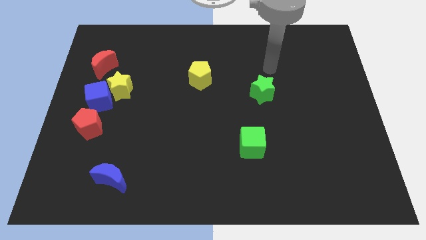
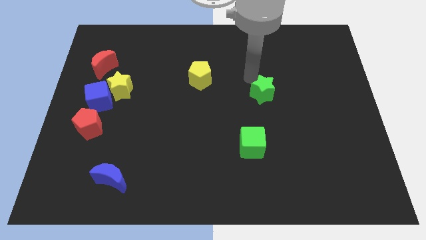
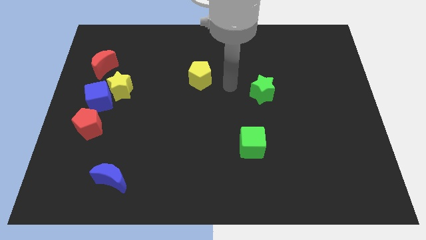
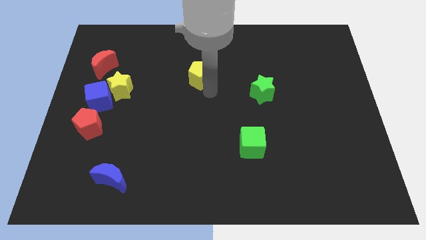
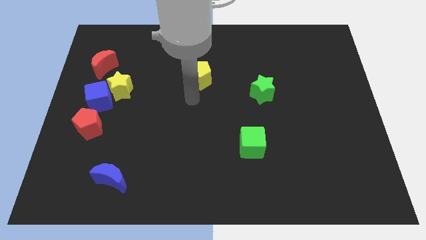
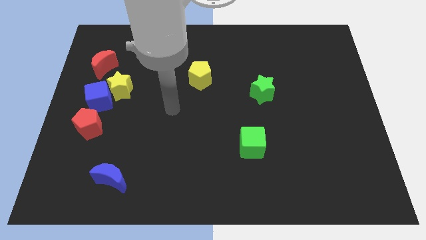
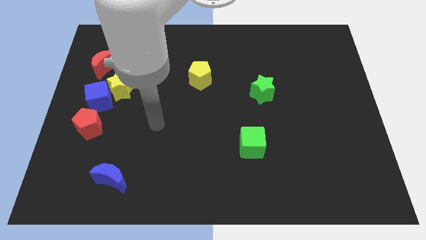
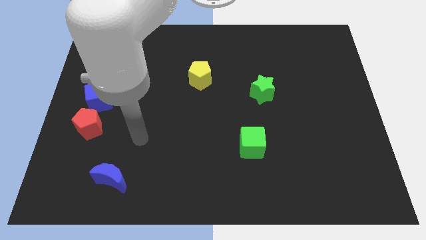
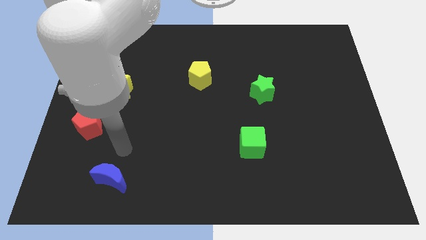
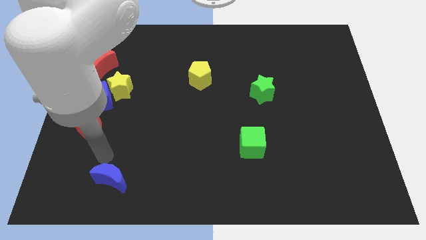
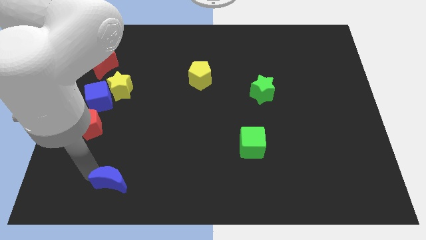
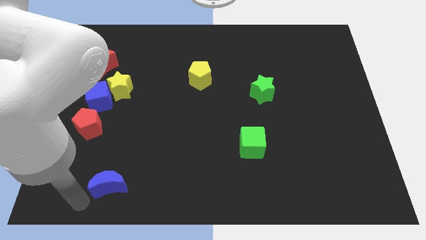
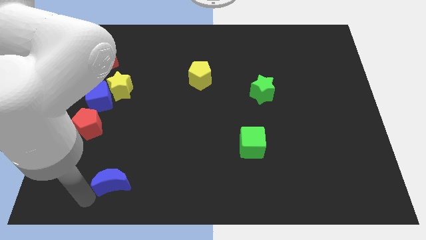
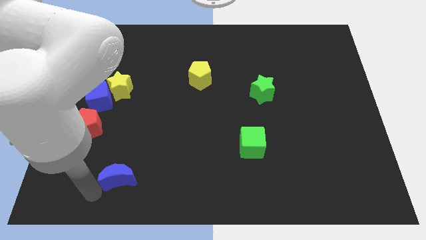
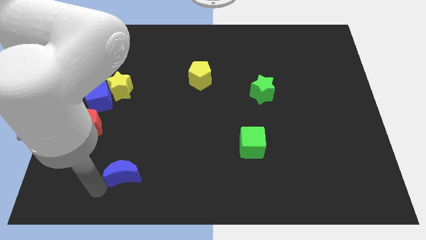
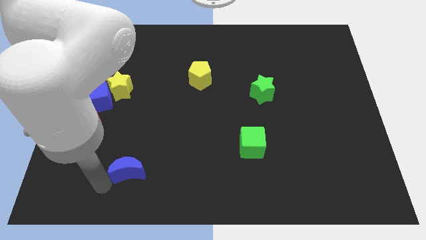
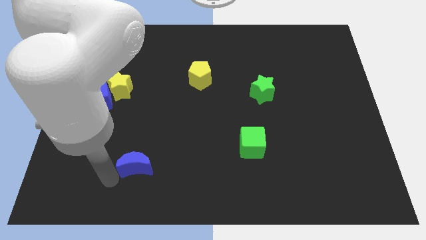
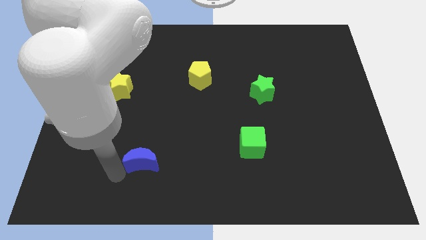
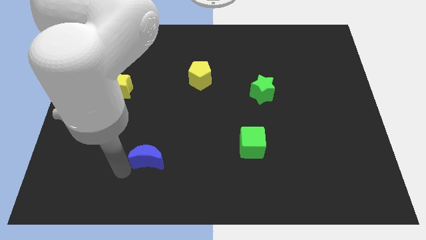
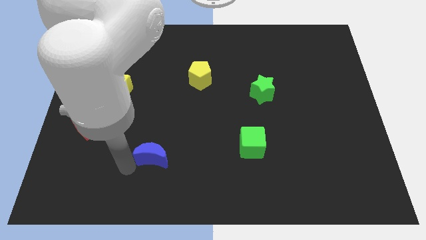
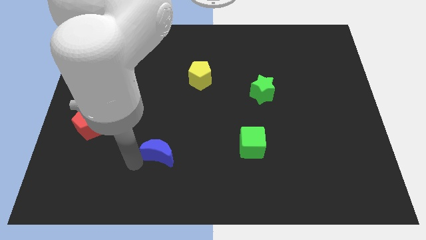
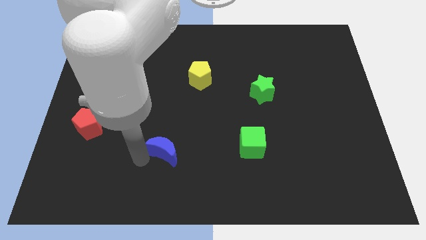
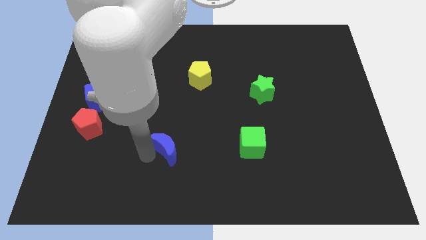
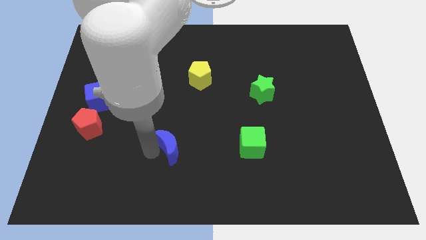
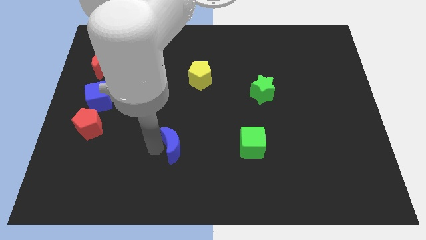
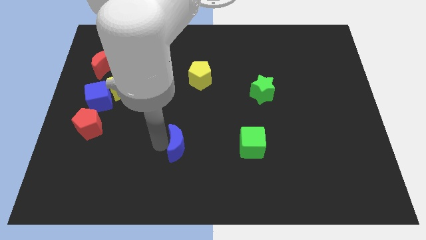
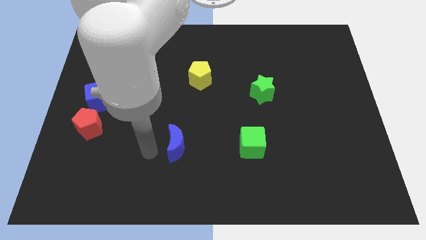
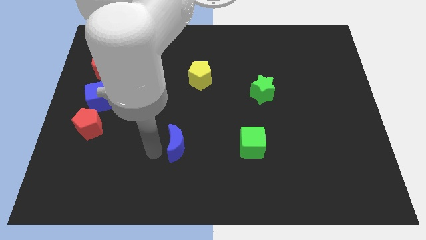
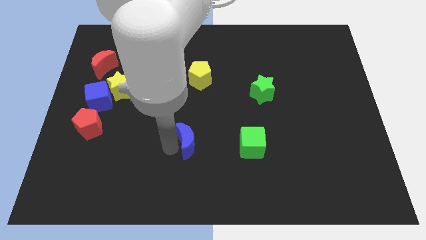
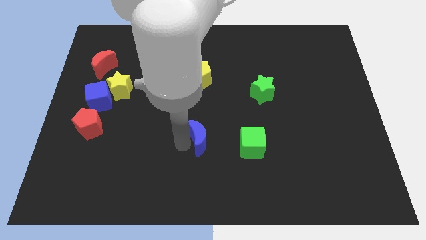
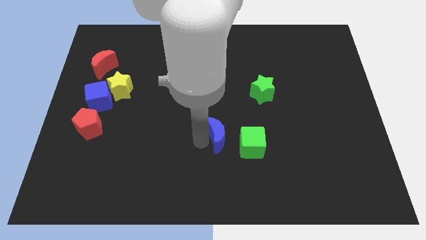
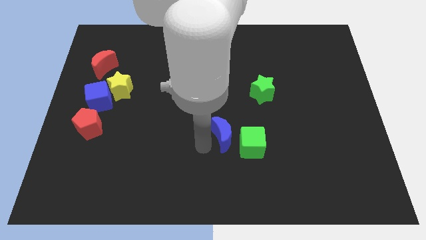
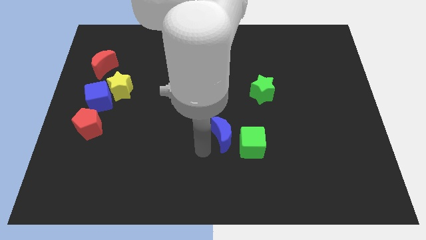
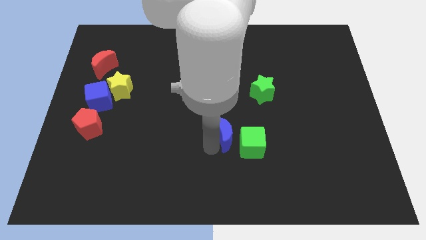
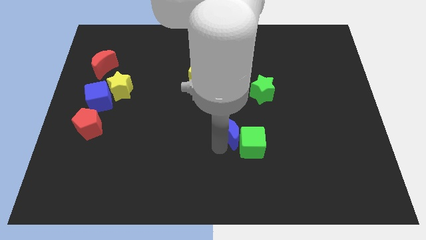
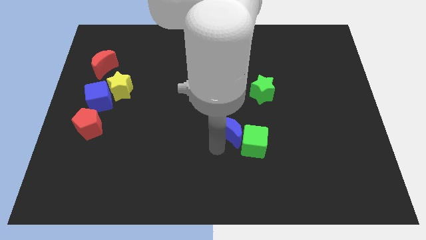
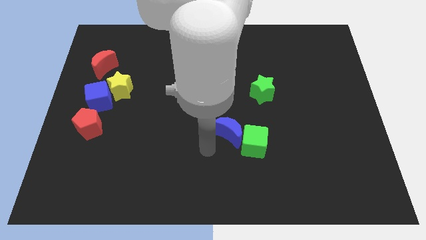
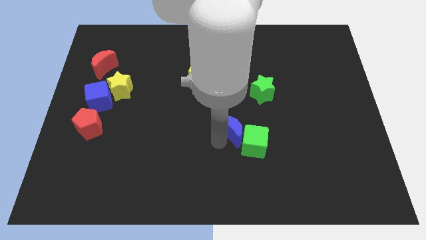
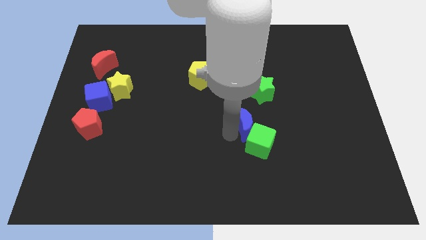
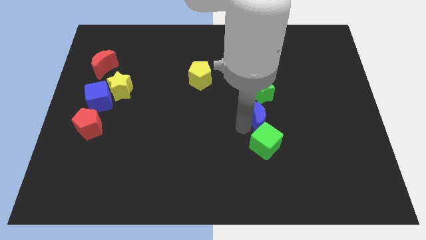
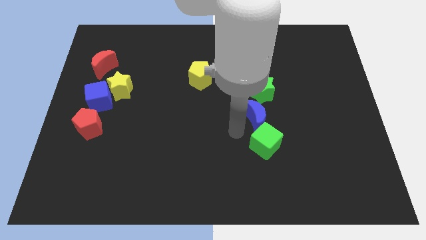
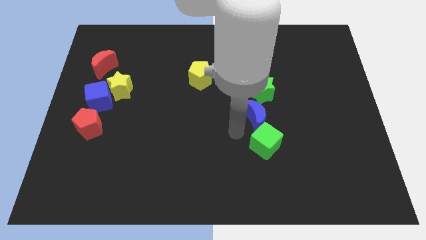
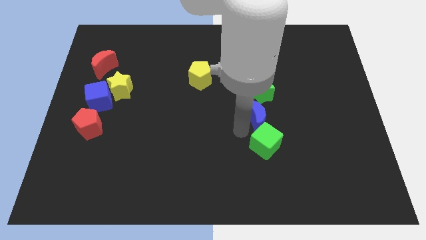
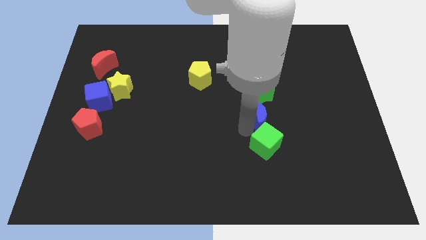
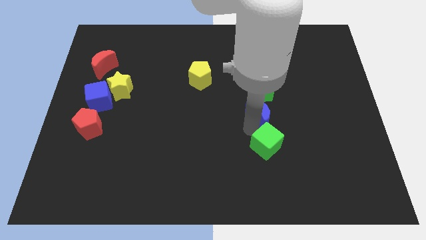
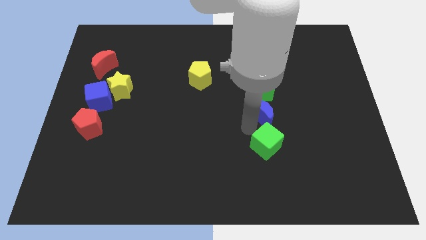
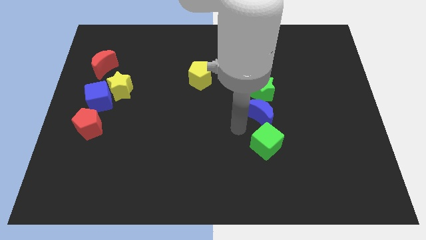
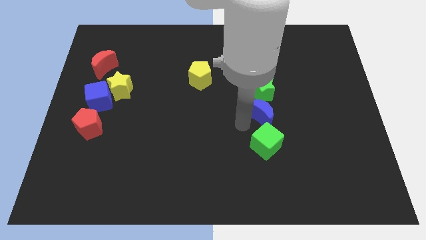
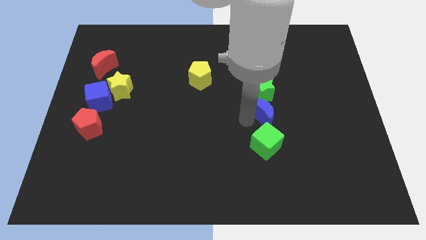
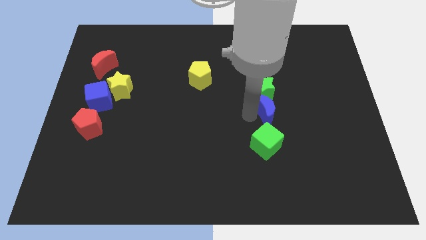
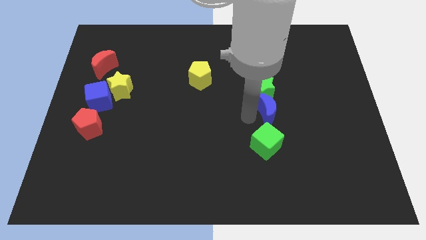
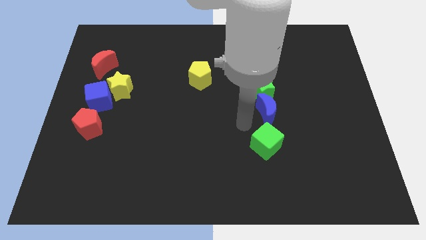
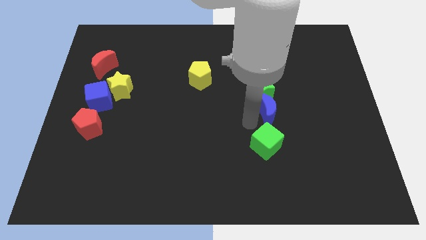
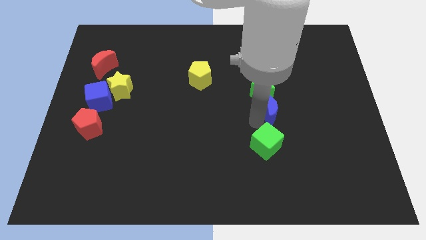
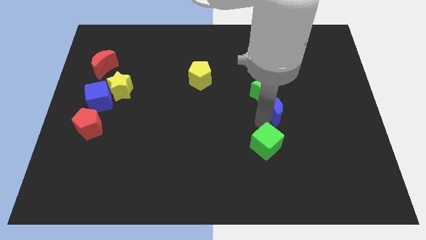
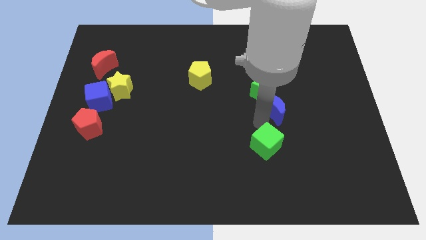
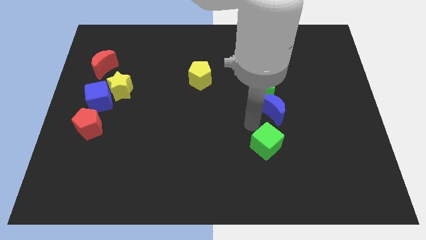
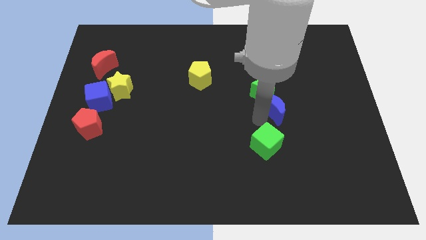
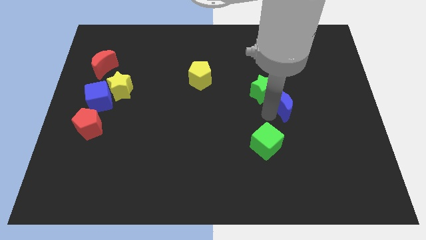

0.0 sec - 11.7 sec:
push the blue moon just right of the green star

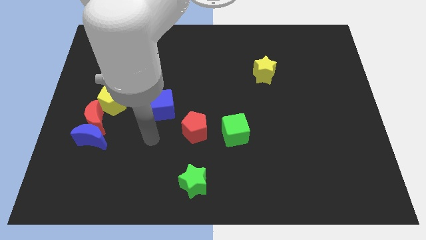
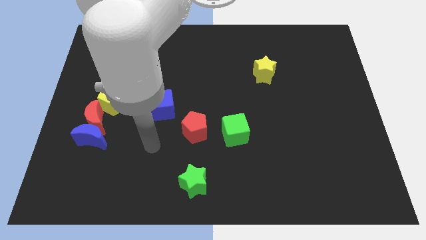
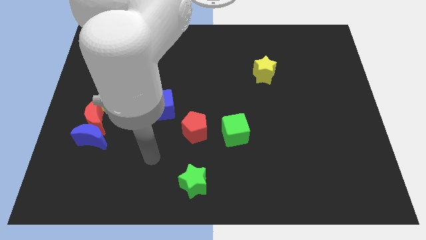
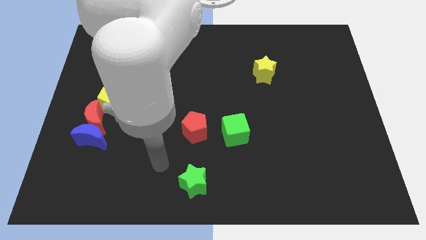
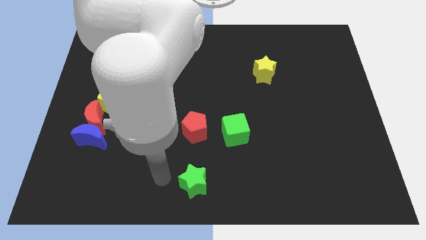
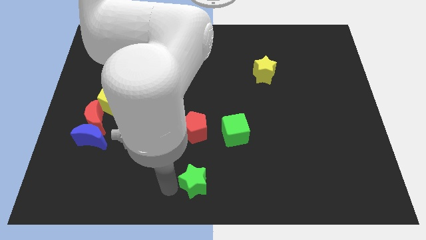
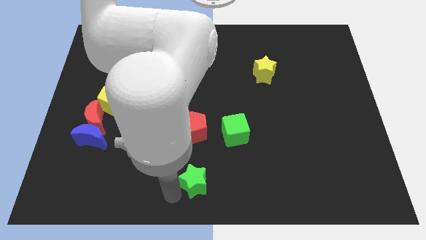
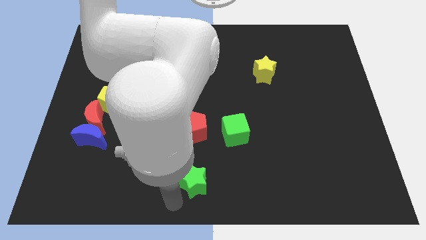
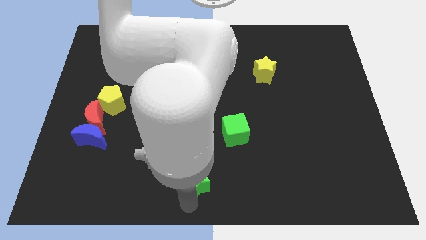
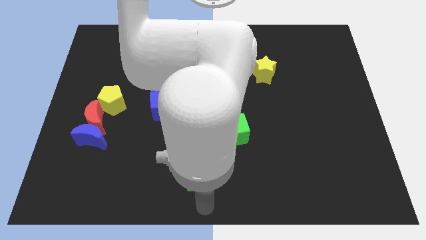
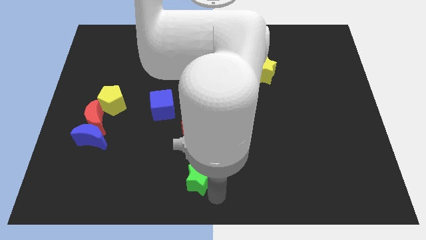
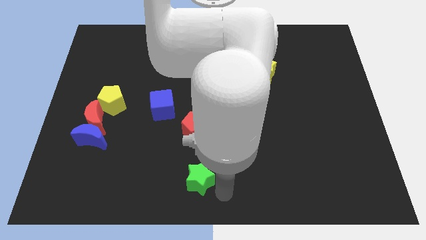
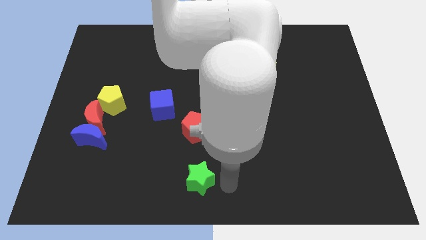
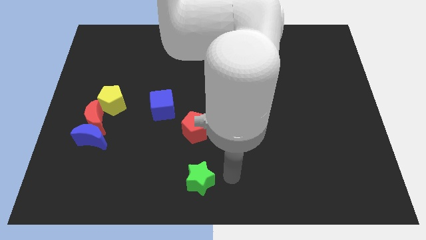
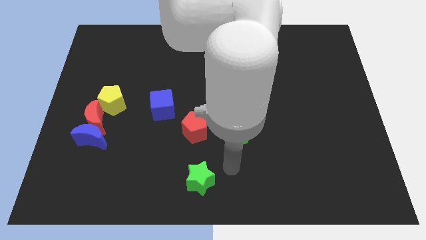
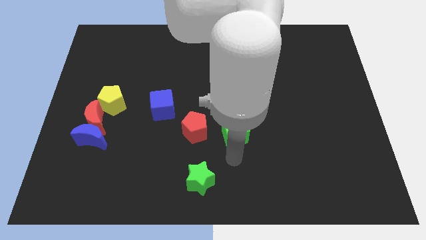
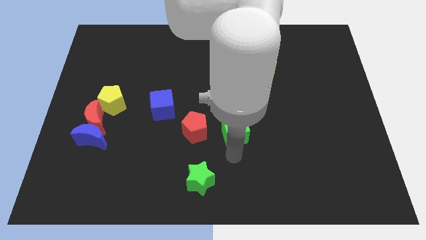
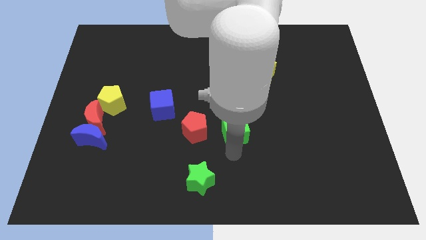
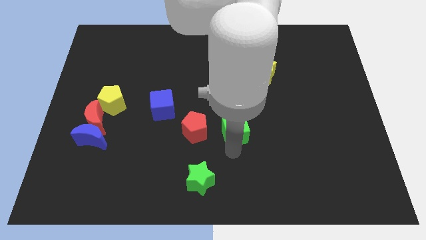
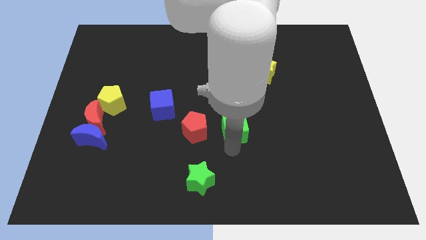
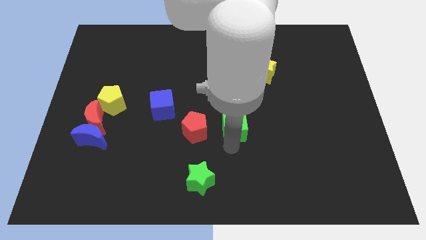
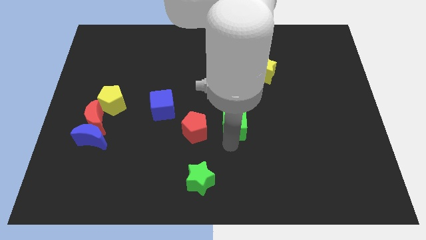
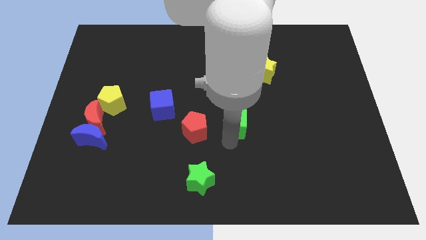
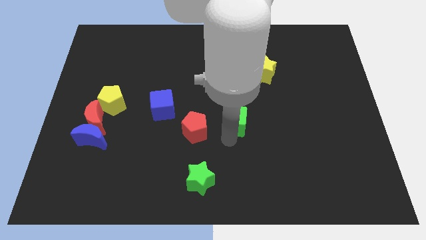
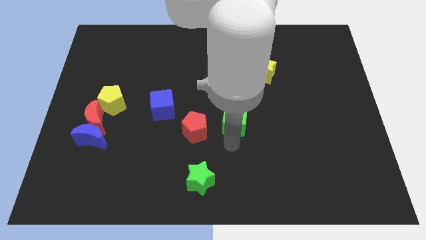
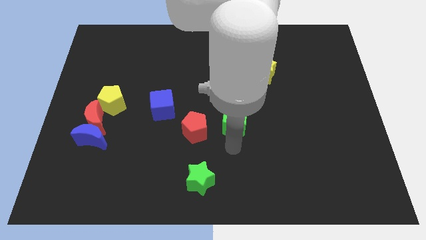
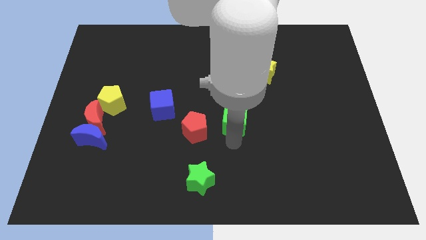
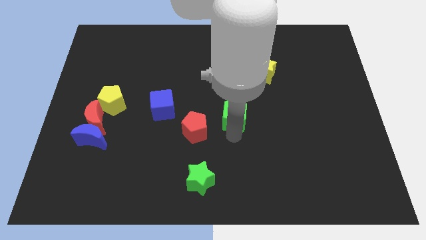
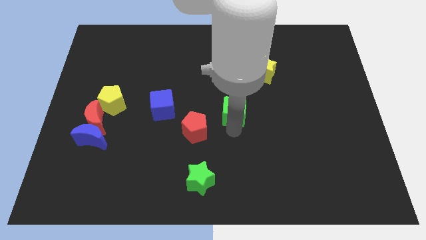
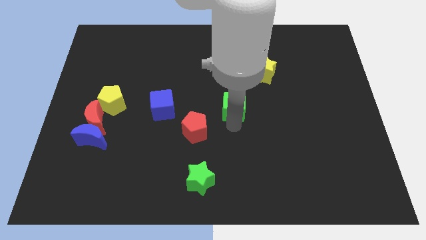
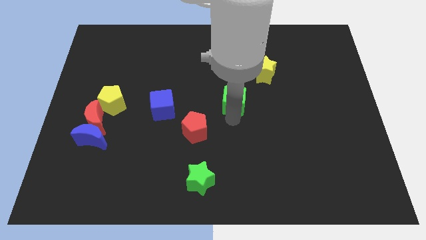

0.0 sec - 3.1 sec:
push the green cube to the bottom left side of the yellow star
